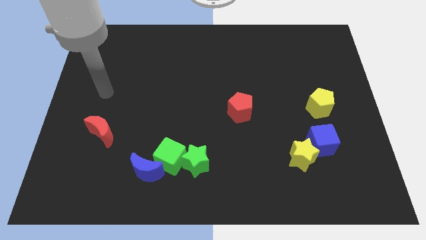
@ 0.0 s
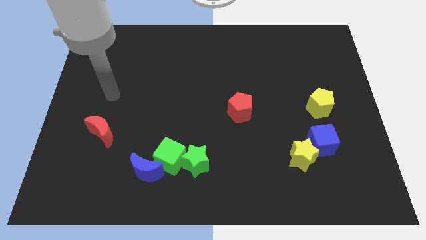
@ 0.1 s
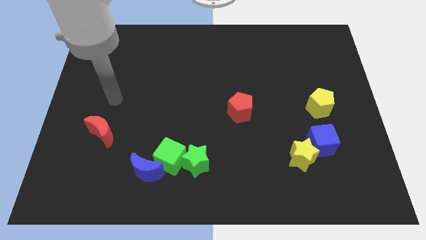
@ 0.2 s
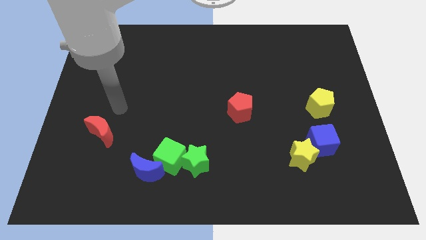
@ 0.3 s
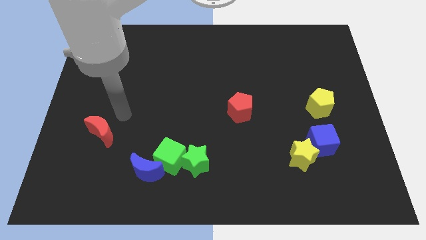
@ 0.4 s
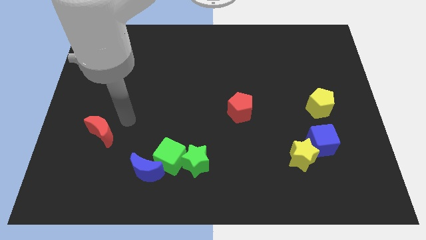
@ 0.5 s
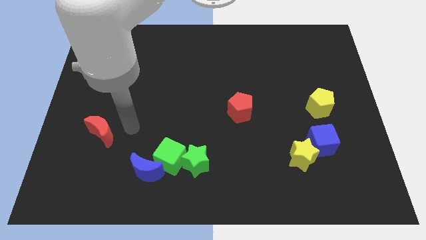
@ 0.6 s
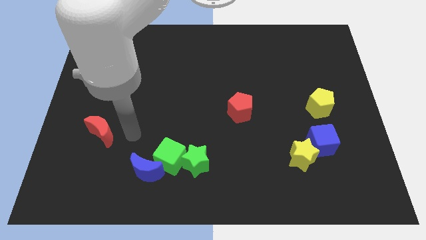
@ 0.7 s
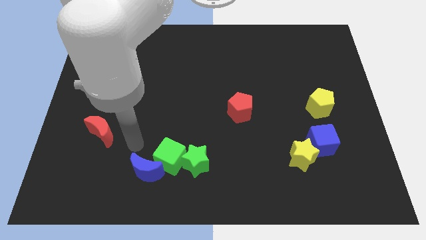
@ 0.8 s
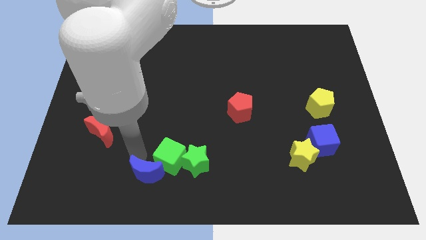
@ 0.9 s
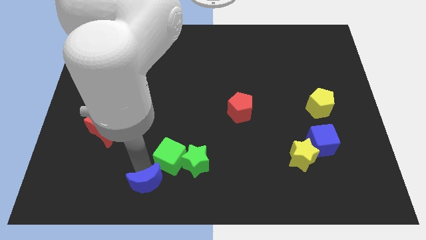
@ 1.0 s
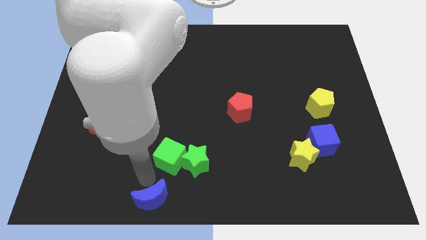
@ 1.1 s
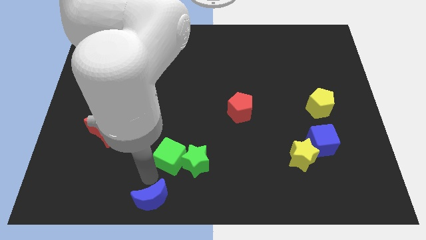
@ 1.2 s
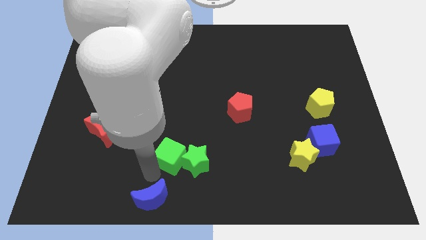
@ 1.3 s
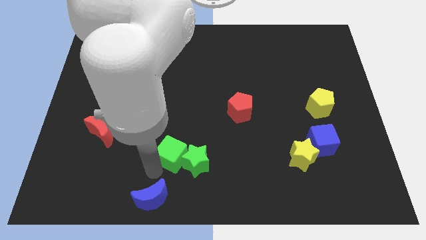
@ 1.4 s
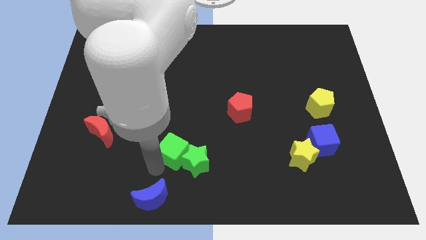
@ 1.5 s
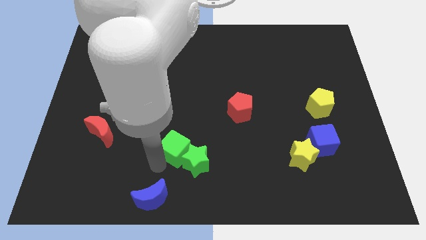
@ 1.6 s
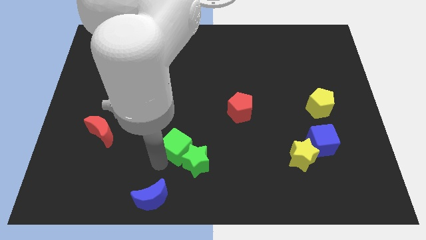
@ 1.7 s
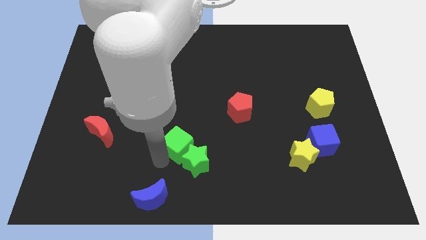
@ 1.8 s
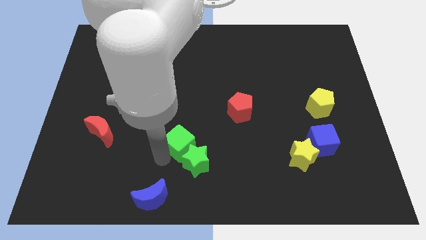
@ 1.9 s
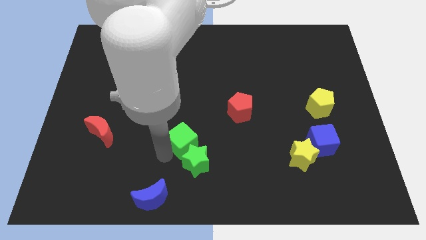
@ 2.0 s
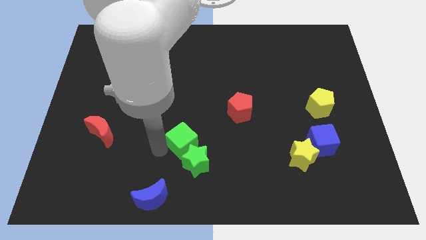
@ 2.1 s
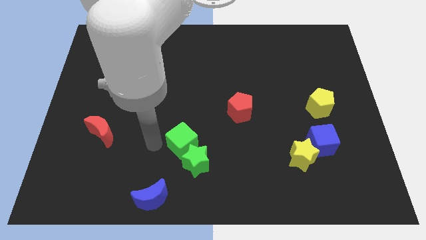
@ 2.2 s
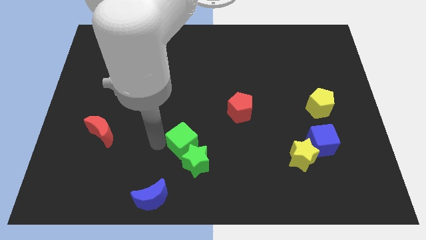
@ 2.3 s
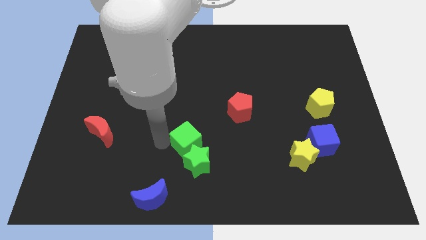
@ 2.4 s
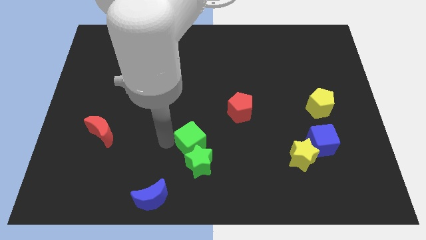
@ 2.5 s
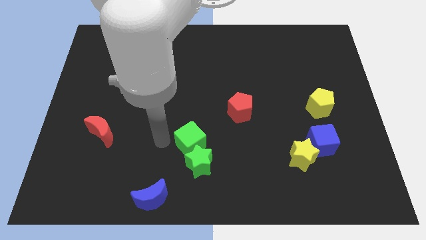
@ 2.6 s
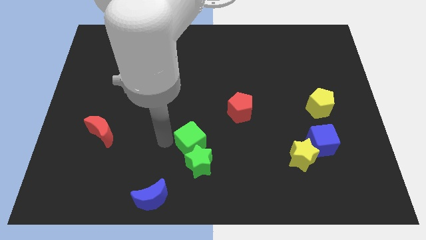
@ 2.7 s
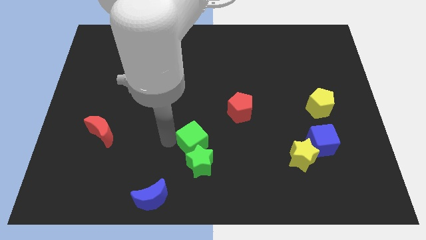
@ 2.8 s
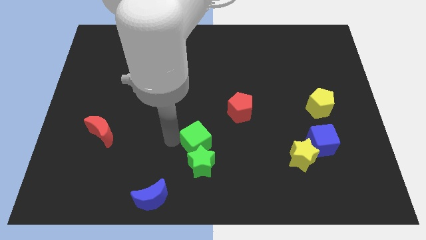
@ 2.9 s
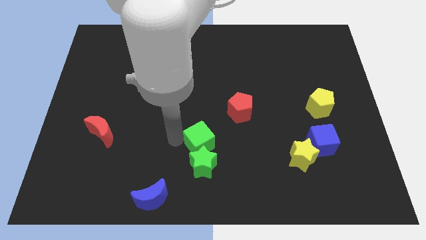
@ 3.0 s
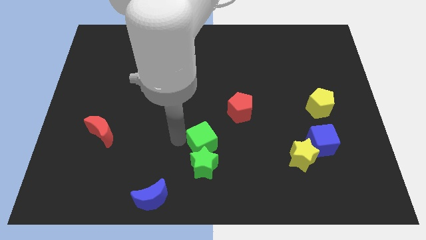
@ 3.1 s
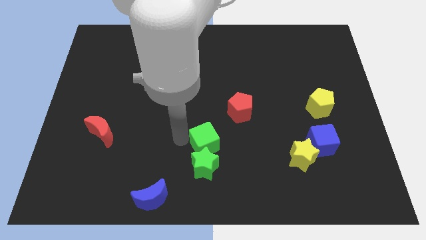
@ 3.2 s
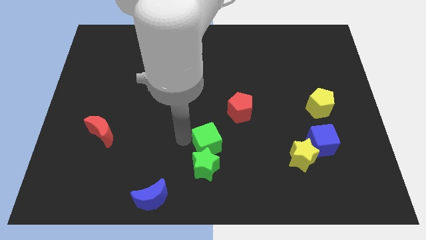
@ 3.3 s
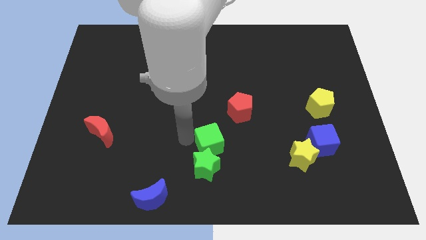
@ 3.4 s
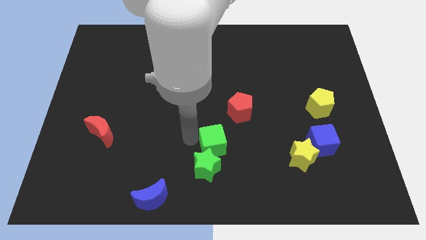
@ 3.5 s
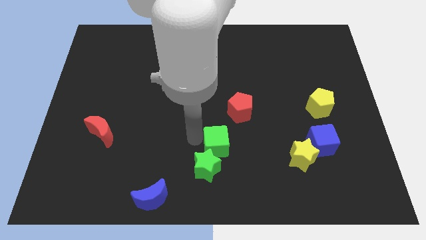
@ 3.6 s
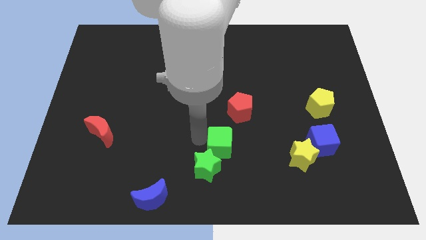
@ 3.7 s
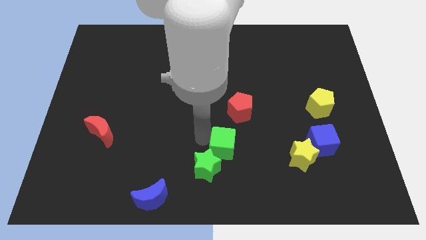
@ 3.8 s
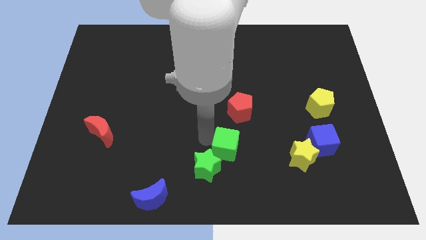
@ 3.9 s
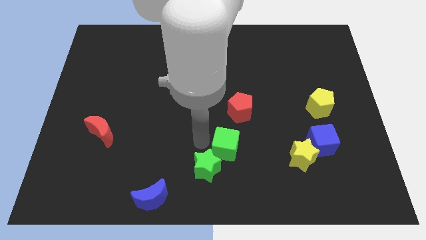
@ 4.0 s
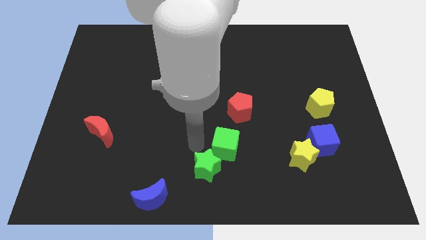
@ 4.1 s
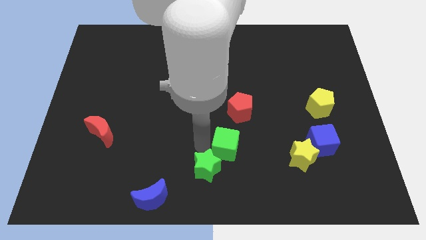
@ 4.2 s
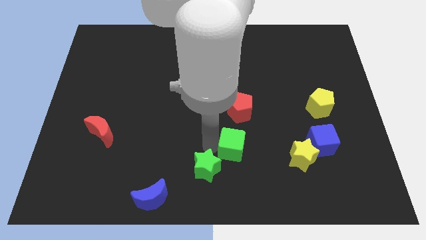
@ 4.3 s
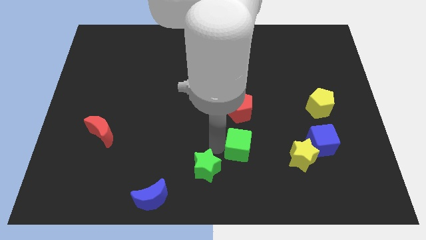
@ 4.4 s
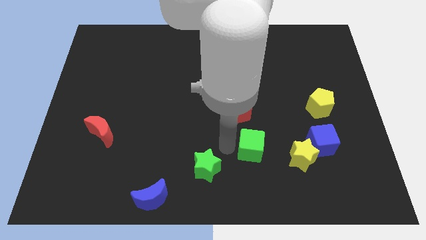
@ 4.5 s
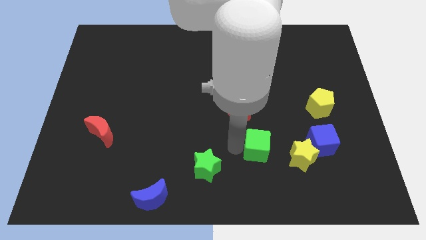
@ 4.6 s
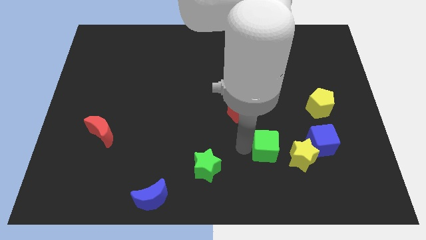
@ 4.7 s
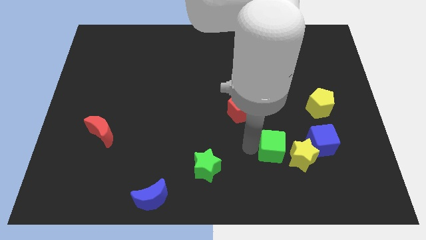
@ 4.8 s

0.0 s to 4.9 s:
put the green cube next to the yellow star

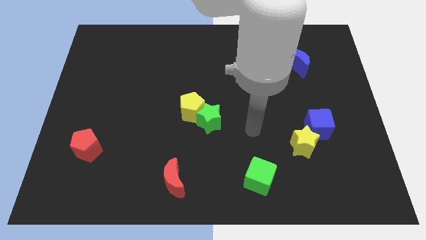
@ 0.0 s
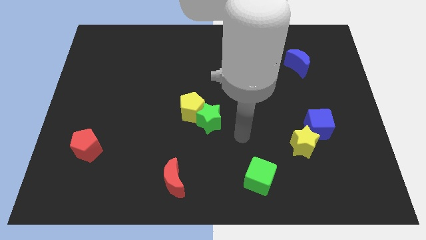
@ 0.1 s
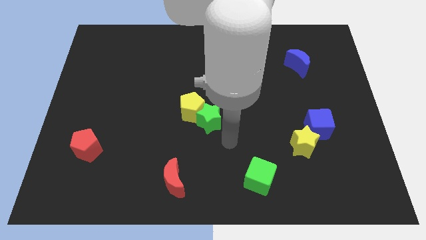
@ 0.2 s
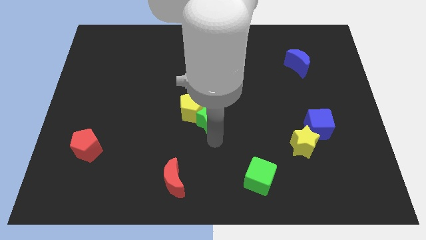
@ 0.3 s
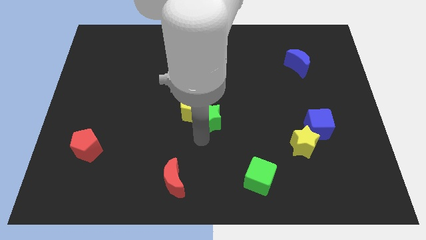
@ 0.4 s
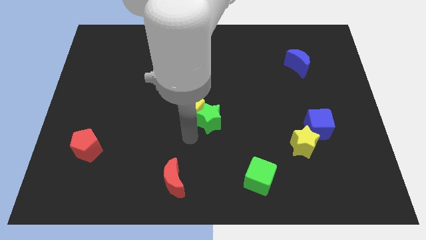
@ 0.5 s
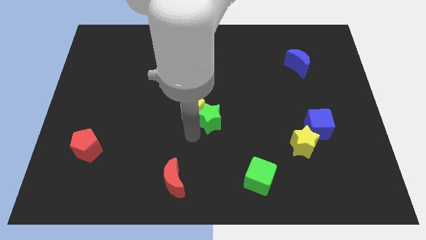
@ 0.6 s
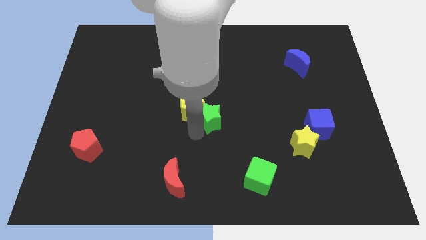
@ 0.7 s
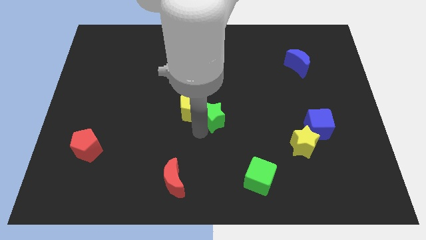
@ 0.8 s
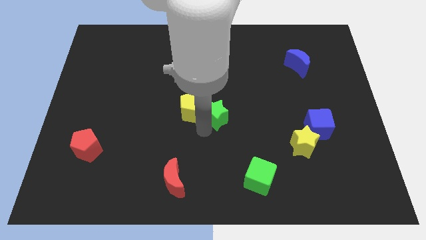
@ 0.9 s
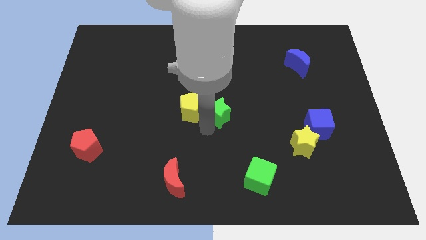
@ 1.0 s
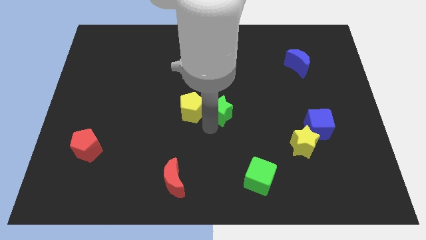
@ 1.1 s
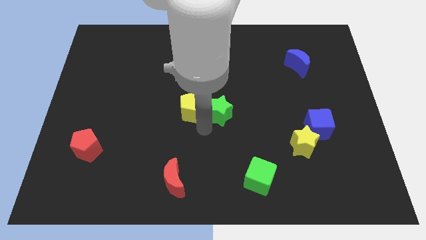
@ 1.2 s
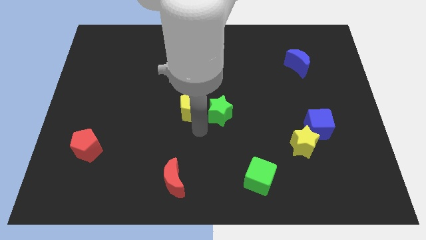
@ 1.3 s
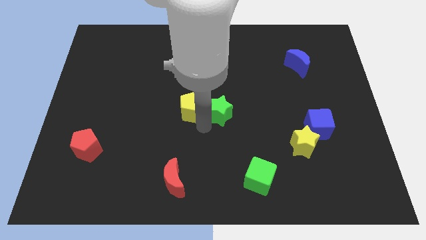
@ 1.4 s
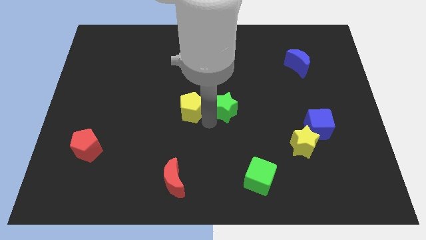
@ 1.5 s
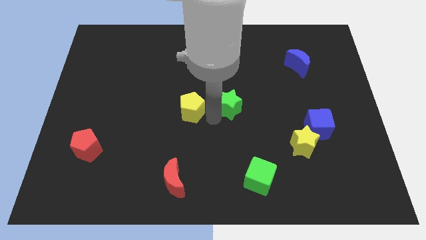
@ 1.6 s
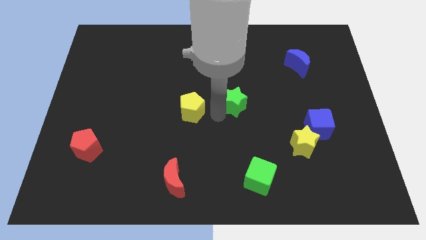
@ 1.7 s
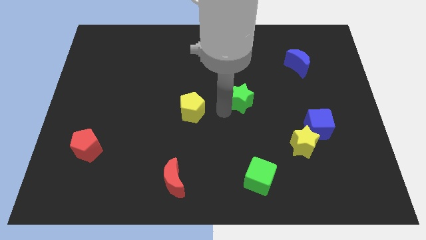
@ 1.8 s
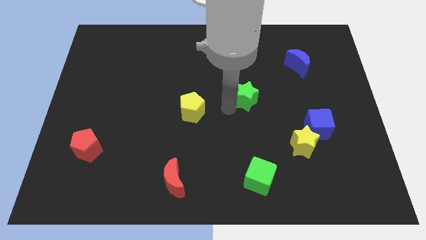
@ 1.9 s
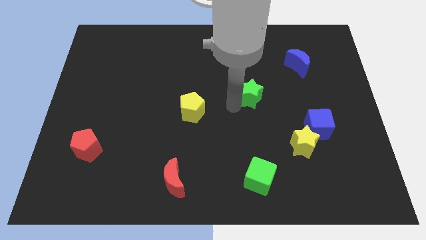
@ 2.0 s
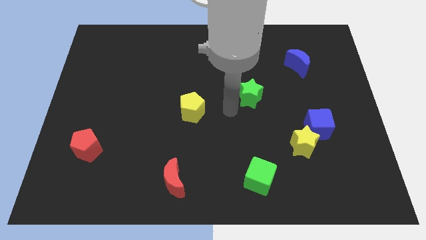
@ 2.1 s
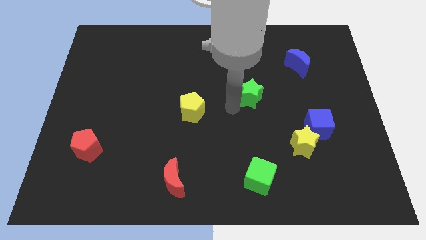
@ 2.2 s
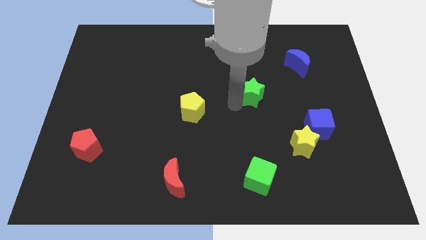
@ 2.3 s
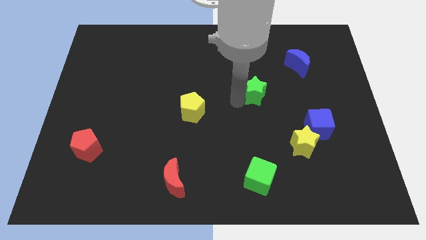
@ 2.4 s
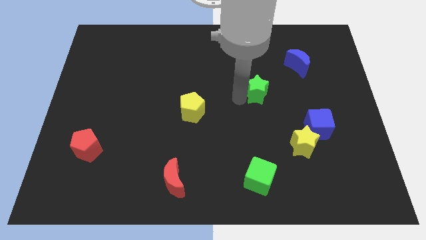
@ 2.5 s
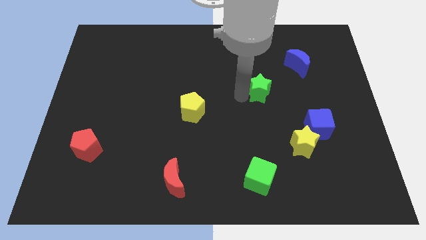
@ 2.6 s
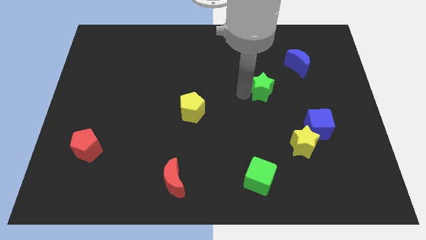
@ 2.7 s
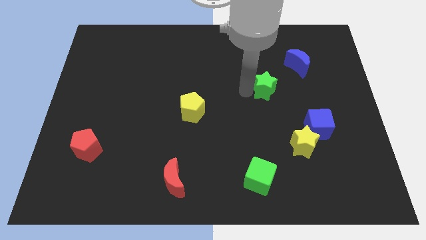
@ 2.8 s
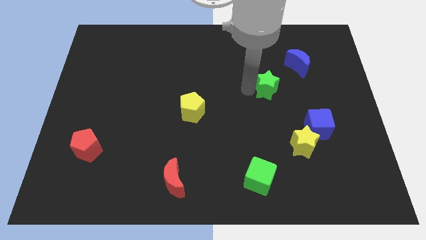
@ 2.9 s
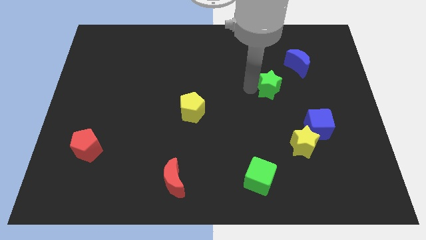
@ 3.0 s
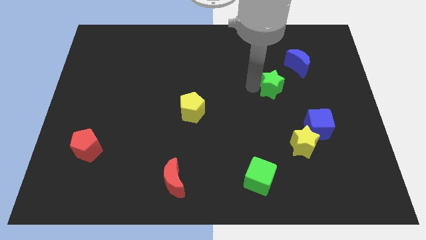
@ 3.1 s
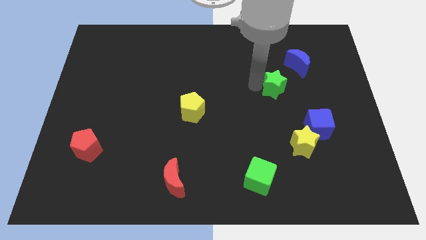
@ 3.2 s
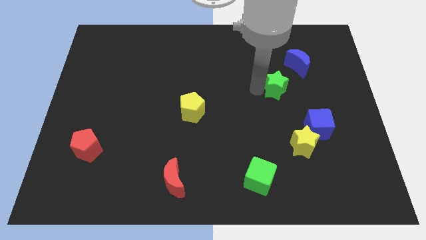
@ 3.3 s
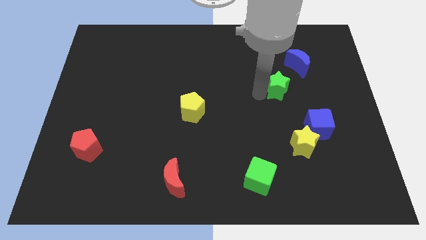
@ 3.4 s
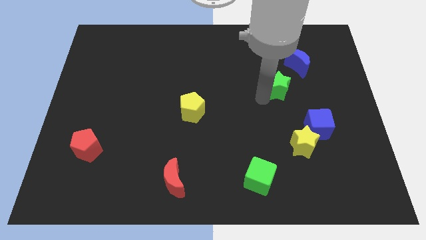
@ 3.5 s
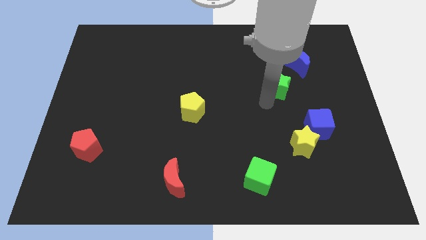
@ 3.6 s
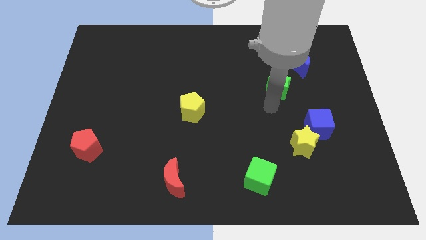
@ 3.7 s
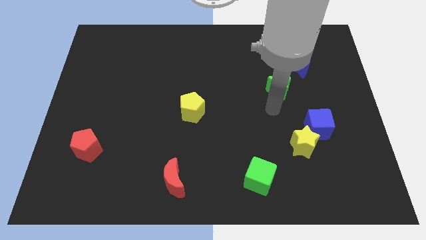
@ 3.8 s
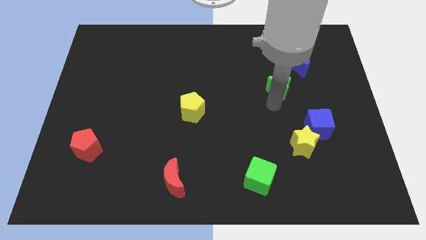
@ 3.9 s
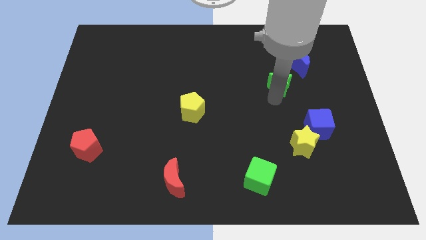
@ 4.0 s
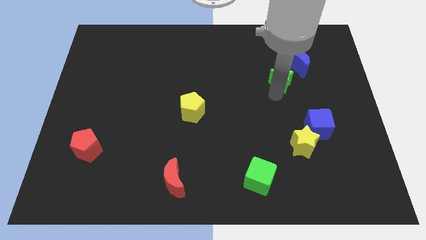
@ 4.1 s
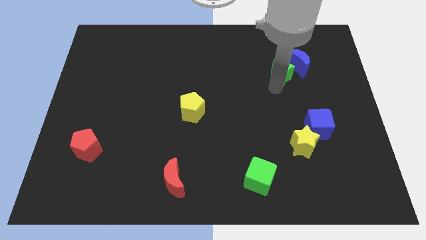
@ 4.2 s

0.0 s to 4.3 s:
push the green star to the blue moon
